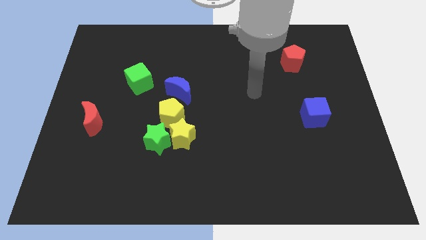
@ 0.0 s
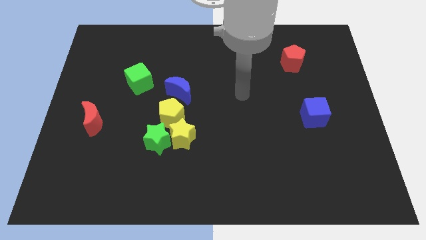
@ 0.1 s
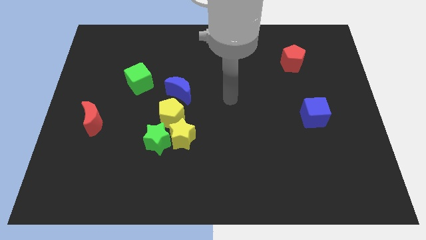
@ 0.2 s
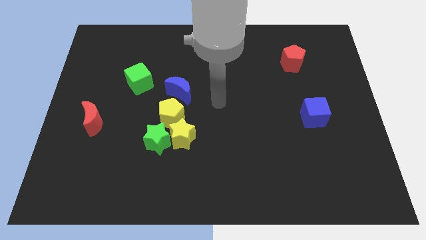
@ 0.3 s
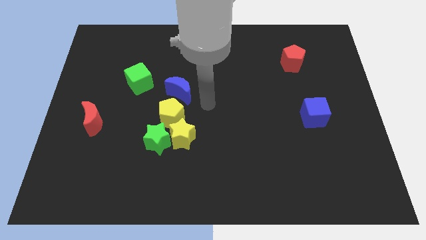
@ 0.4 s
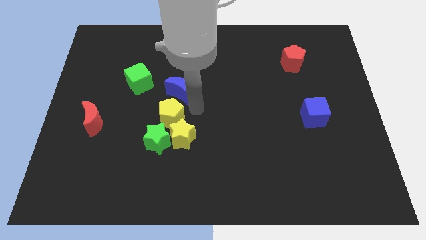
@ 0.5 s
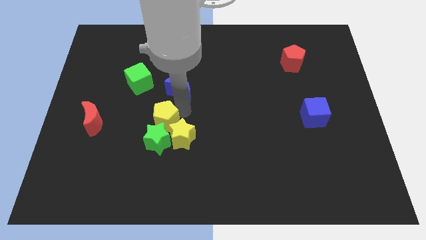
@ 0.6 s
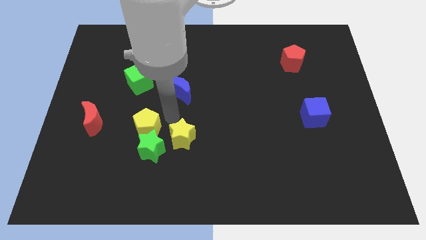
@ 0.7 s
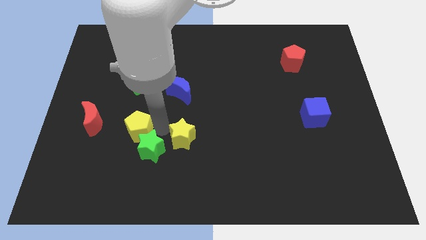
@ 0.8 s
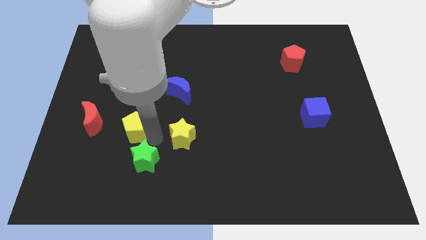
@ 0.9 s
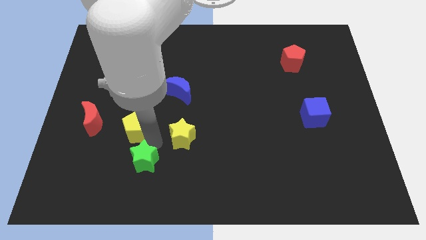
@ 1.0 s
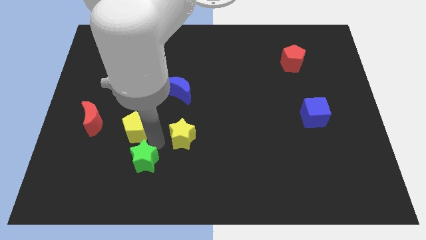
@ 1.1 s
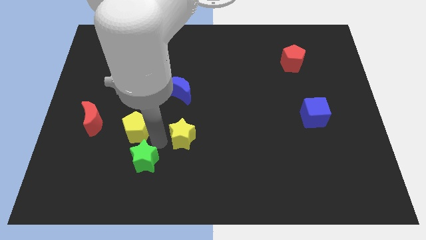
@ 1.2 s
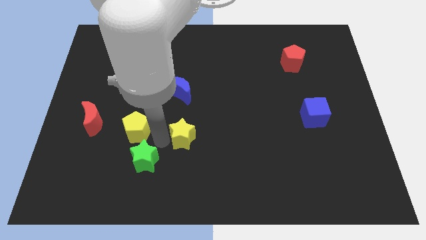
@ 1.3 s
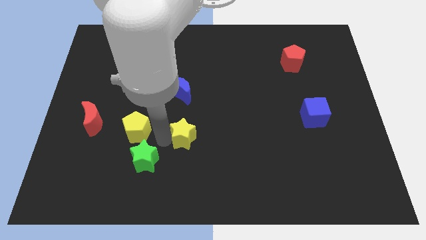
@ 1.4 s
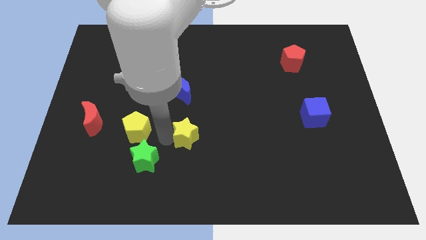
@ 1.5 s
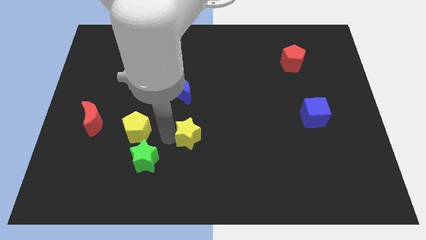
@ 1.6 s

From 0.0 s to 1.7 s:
separate the yellow star from the green star and yellow pentagon

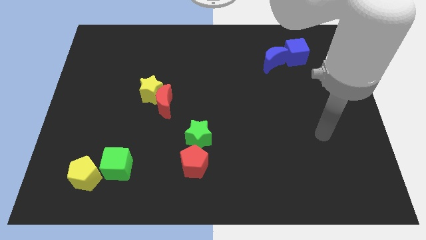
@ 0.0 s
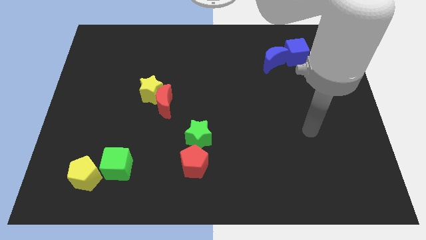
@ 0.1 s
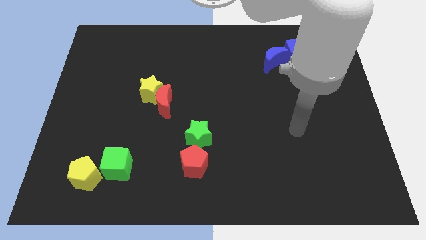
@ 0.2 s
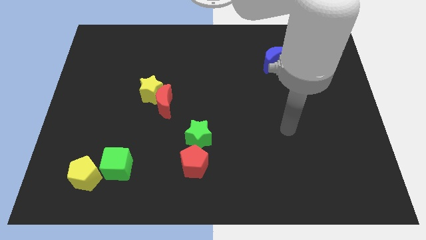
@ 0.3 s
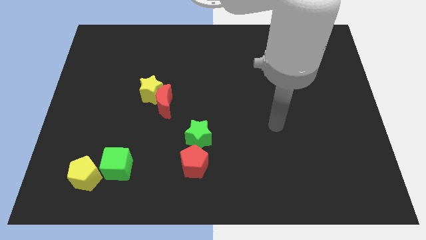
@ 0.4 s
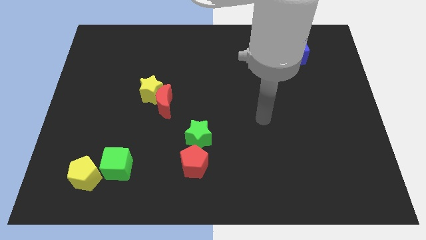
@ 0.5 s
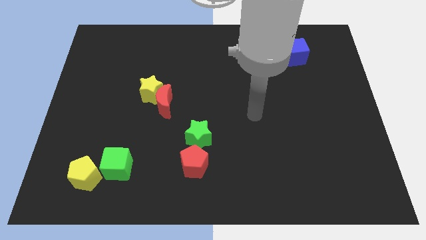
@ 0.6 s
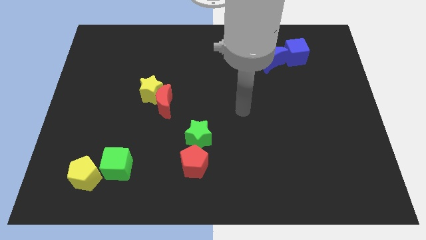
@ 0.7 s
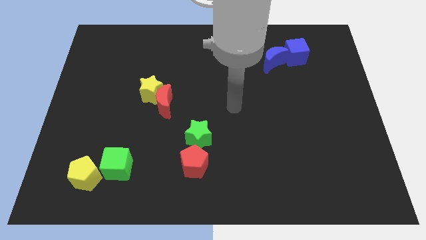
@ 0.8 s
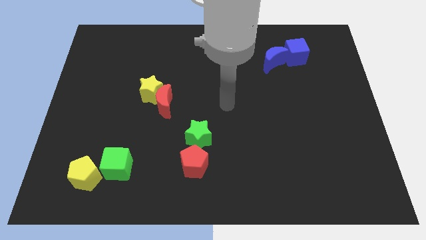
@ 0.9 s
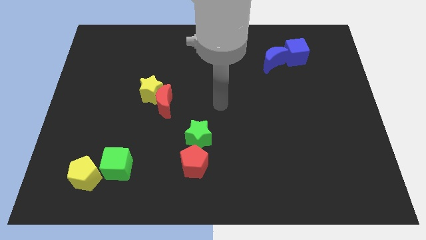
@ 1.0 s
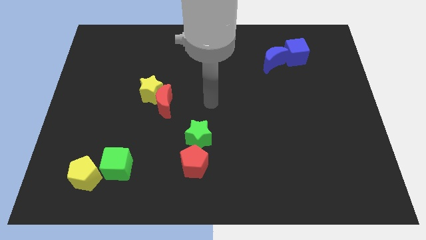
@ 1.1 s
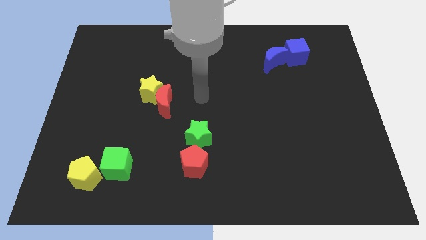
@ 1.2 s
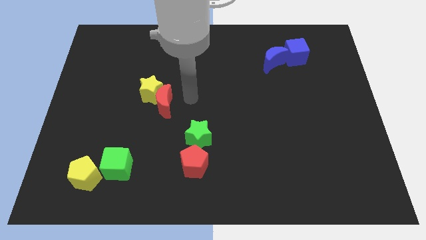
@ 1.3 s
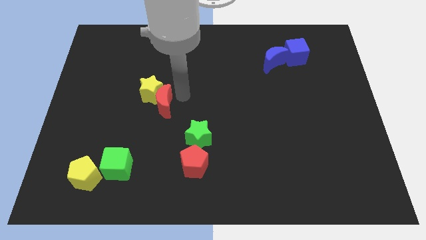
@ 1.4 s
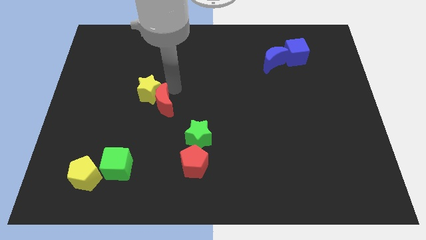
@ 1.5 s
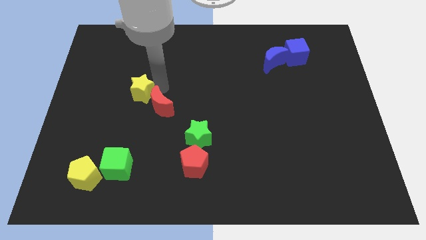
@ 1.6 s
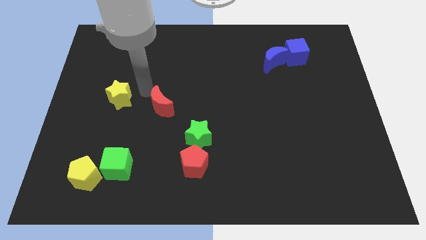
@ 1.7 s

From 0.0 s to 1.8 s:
separate the red moon from the yellow star

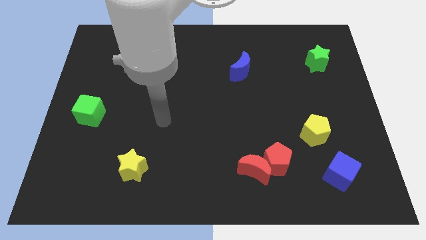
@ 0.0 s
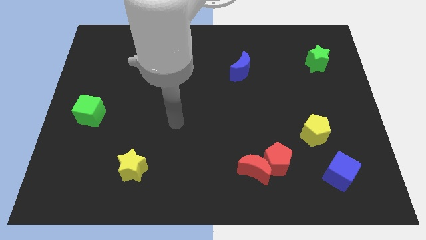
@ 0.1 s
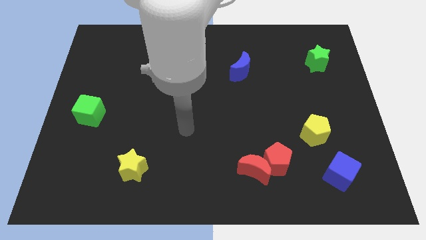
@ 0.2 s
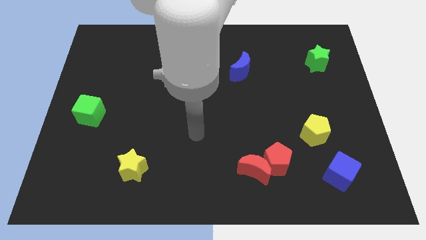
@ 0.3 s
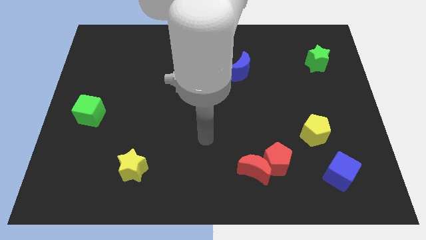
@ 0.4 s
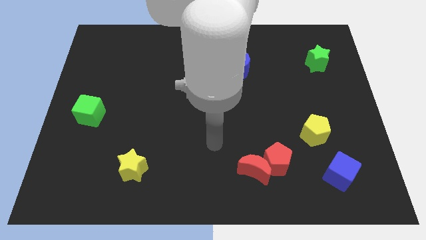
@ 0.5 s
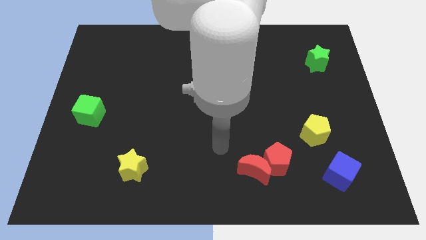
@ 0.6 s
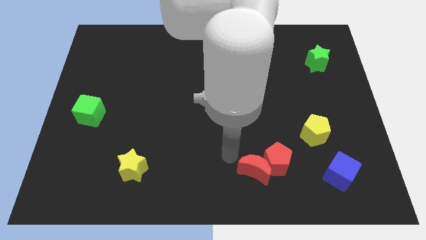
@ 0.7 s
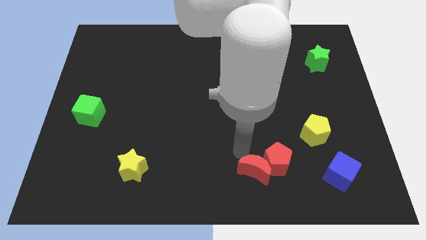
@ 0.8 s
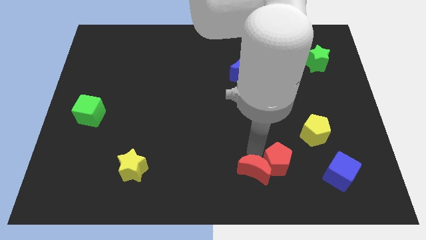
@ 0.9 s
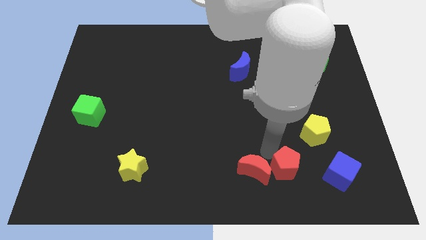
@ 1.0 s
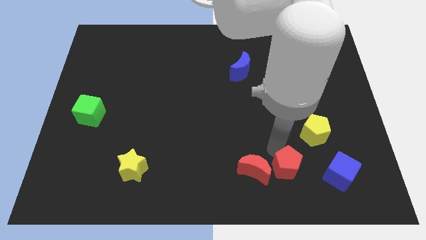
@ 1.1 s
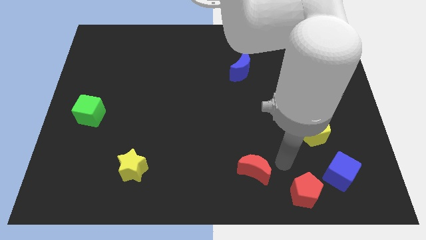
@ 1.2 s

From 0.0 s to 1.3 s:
pull the red moon apart from the red pentagon

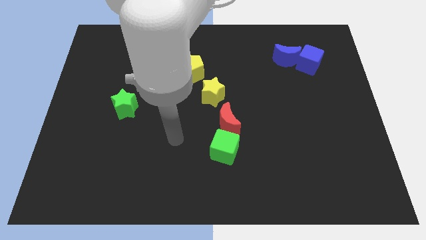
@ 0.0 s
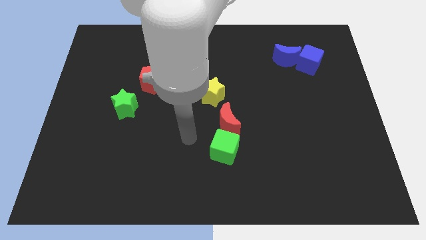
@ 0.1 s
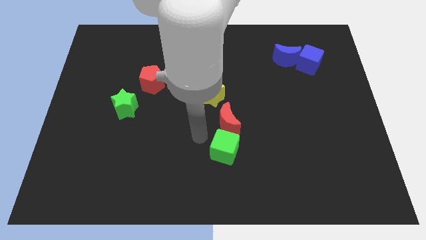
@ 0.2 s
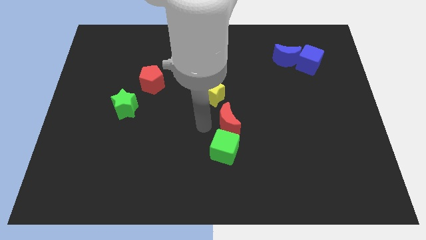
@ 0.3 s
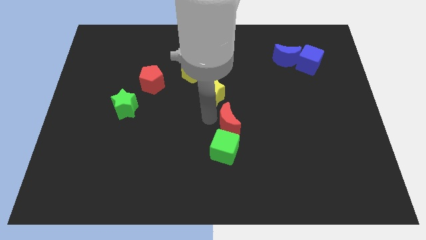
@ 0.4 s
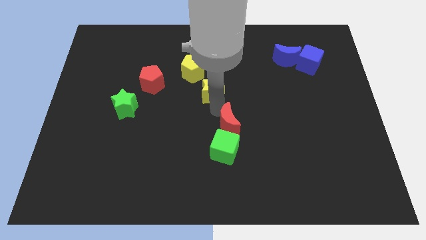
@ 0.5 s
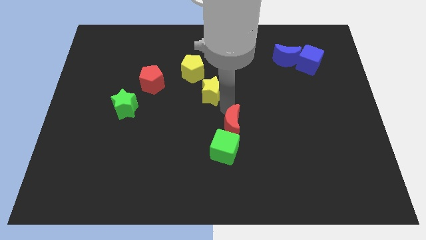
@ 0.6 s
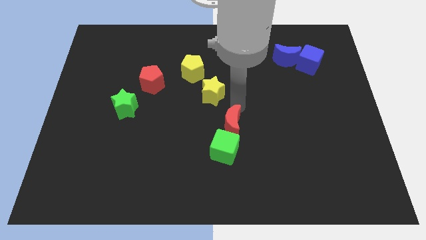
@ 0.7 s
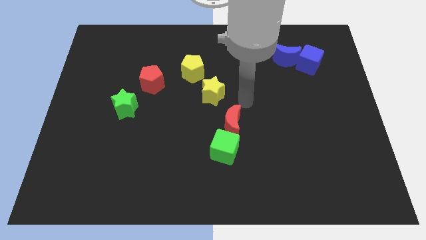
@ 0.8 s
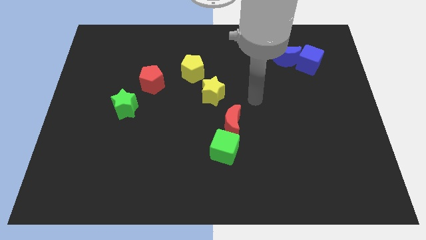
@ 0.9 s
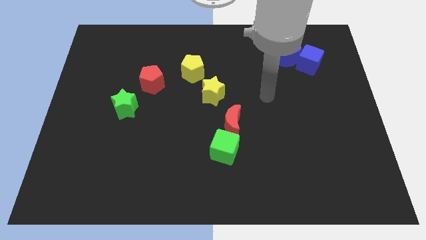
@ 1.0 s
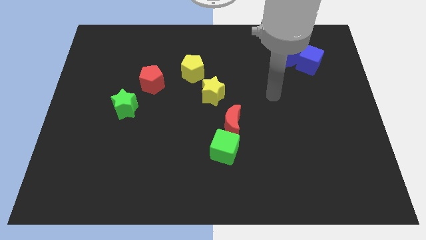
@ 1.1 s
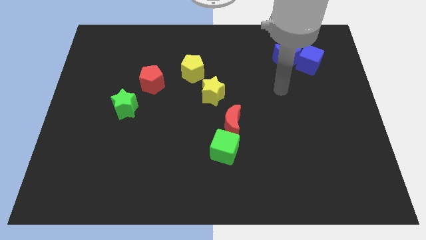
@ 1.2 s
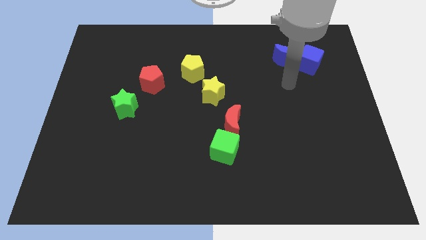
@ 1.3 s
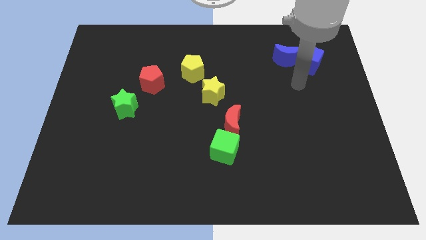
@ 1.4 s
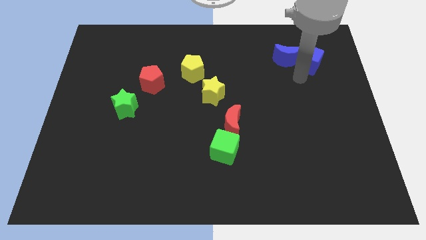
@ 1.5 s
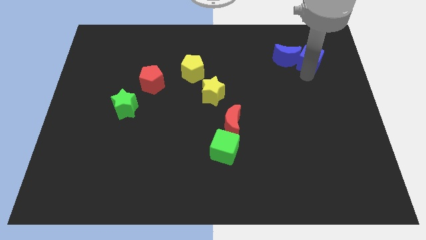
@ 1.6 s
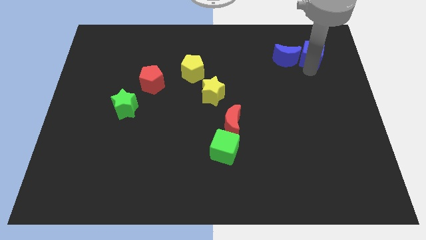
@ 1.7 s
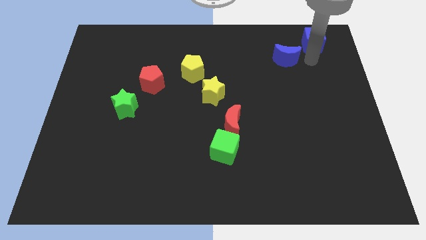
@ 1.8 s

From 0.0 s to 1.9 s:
separate the blue moon from the blue cube

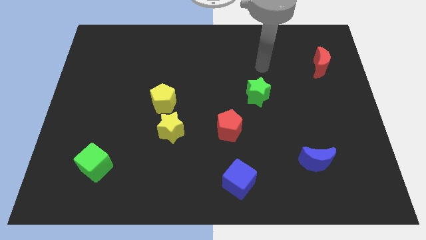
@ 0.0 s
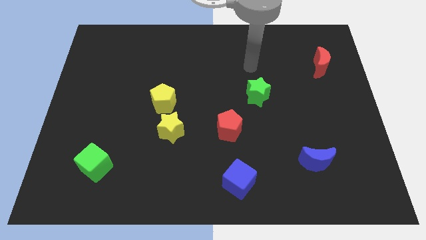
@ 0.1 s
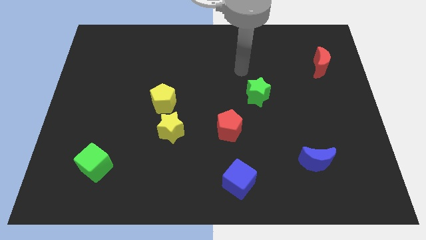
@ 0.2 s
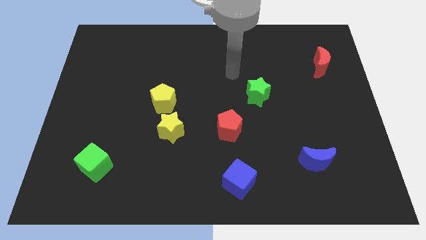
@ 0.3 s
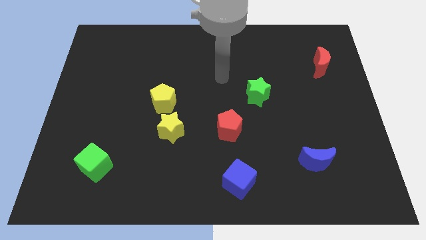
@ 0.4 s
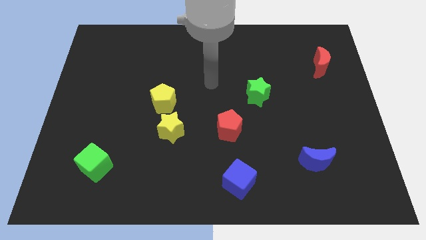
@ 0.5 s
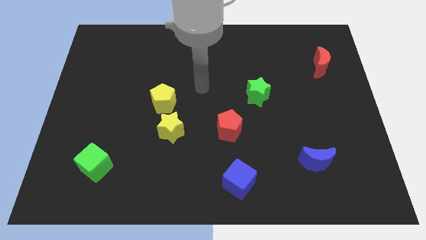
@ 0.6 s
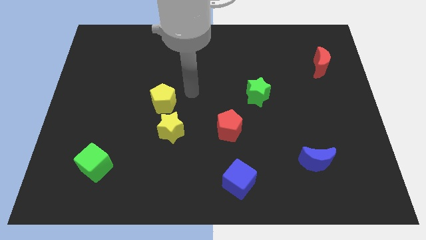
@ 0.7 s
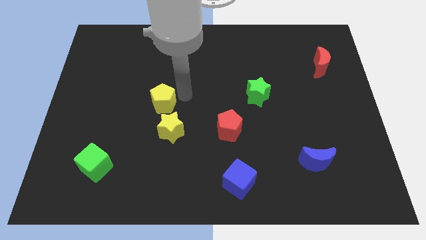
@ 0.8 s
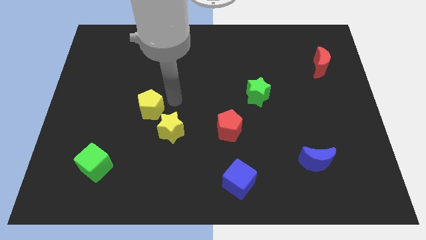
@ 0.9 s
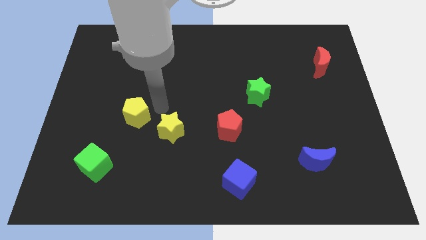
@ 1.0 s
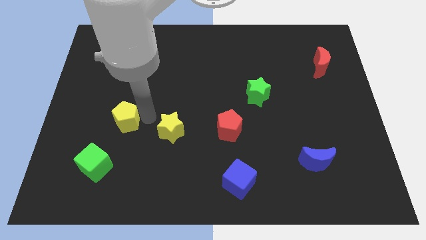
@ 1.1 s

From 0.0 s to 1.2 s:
move the yellow star away from the yellow pentagon

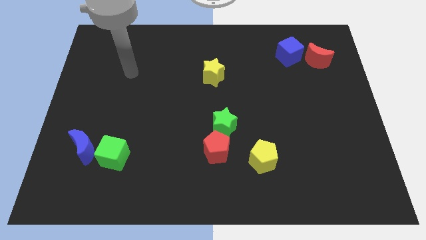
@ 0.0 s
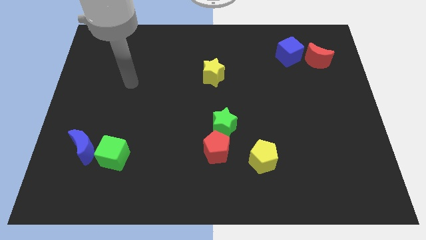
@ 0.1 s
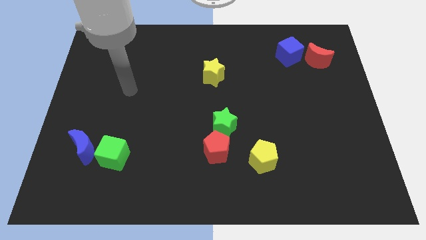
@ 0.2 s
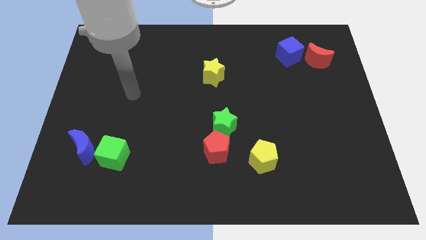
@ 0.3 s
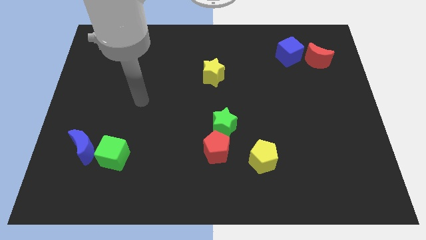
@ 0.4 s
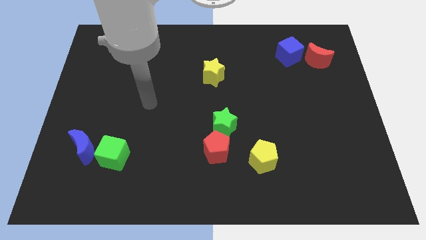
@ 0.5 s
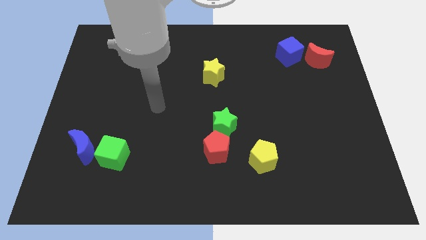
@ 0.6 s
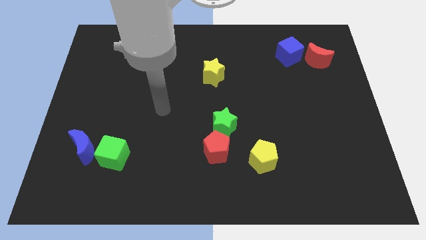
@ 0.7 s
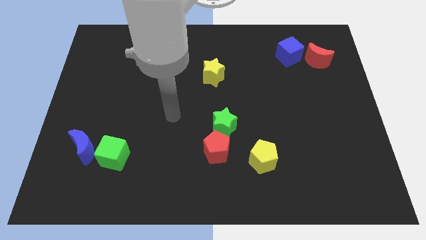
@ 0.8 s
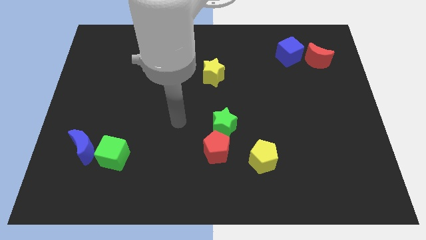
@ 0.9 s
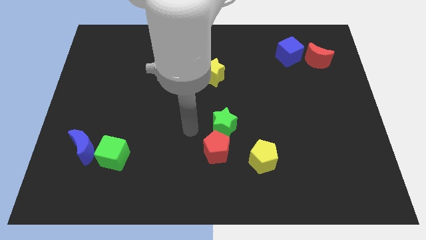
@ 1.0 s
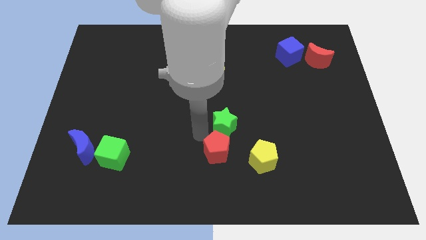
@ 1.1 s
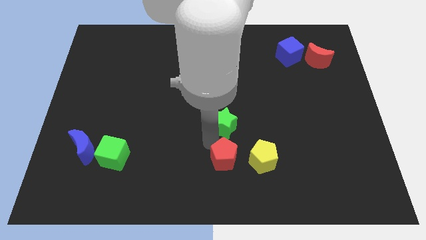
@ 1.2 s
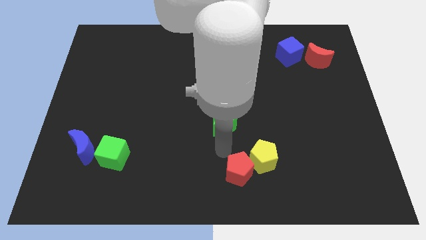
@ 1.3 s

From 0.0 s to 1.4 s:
separate the green star from the red pentagon
